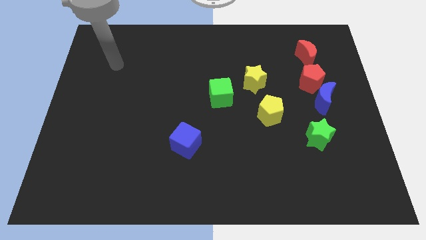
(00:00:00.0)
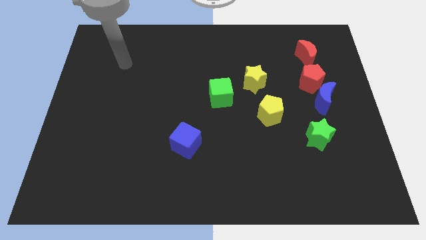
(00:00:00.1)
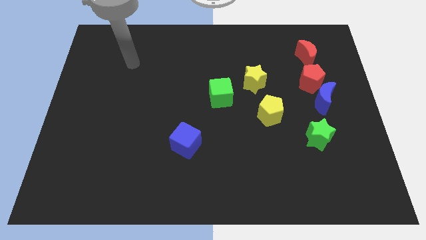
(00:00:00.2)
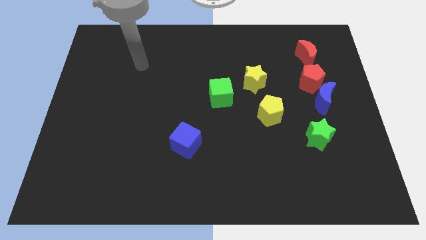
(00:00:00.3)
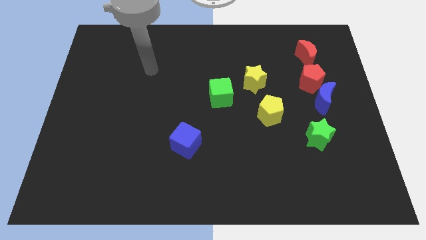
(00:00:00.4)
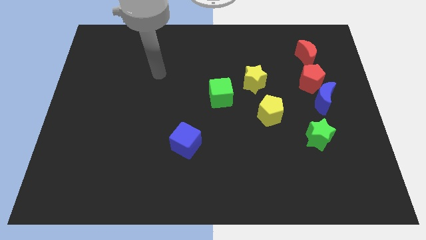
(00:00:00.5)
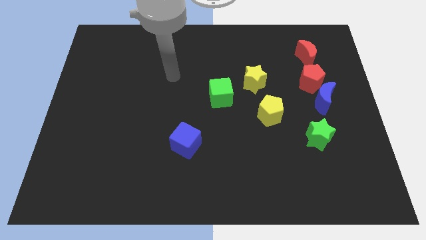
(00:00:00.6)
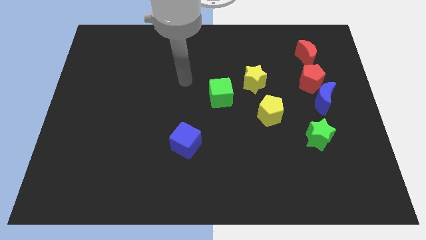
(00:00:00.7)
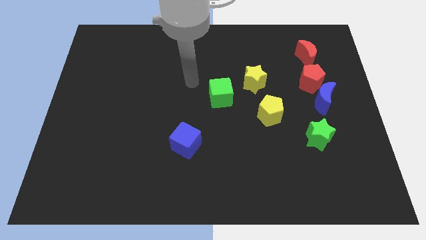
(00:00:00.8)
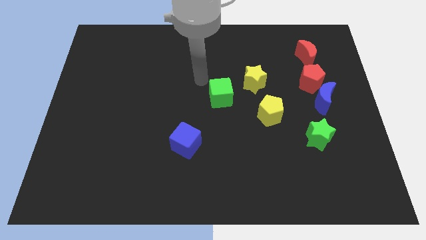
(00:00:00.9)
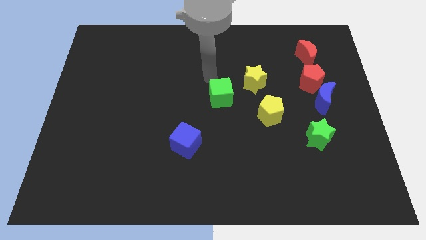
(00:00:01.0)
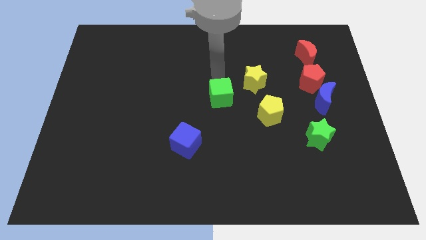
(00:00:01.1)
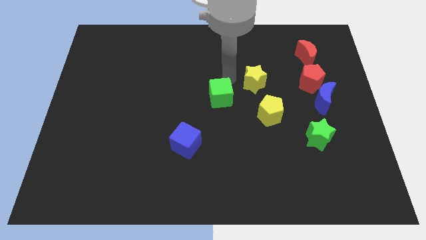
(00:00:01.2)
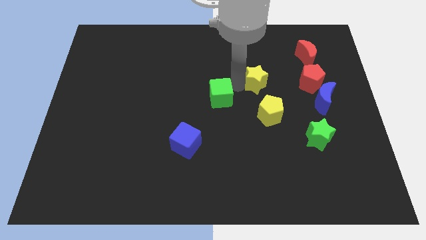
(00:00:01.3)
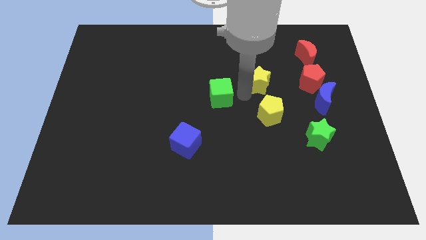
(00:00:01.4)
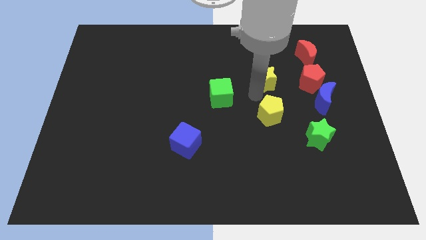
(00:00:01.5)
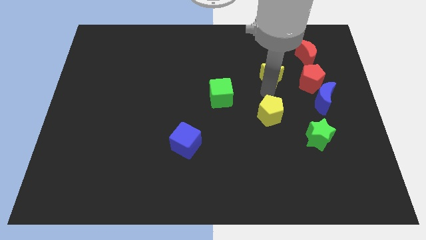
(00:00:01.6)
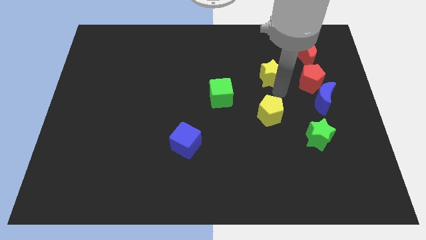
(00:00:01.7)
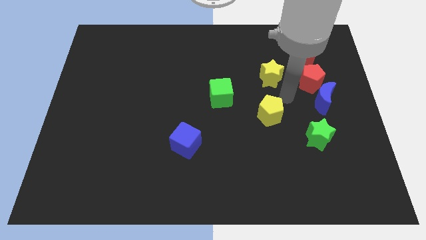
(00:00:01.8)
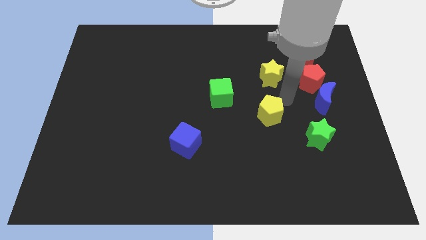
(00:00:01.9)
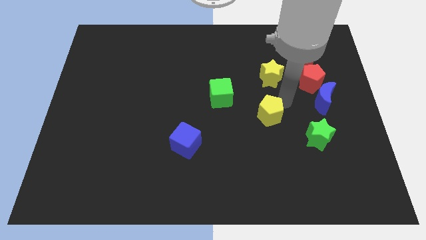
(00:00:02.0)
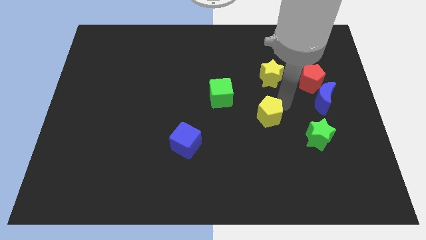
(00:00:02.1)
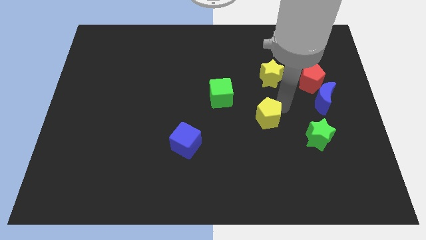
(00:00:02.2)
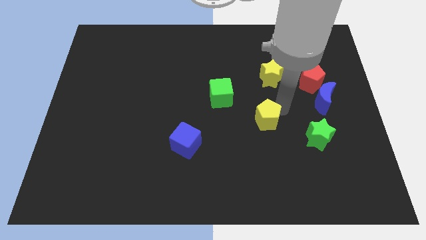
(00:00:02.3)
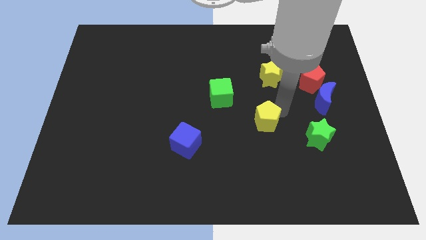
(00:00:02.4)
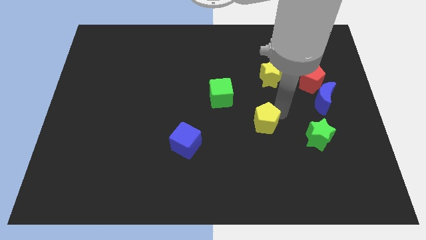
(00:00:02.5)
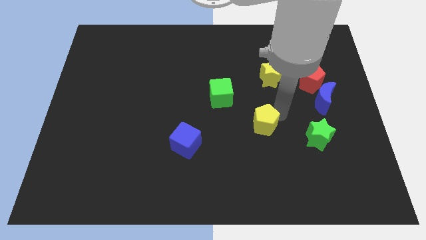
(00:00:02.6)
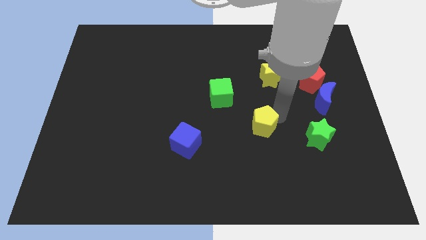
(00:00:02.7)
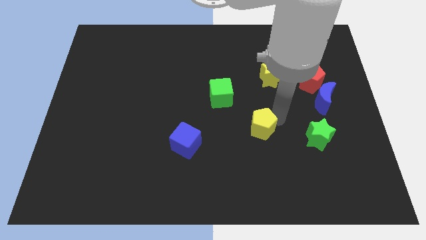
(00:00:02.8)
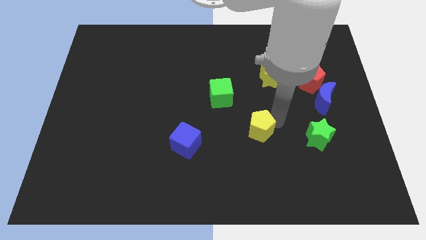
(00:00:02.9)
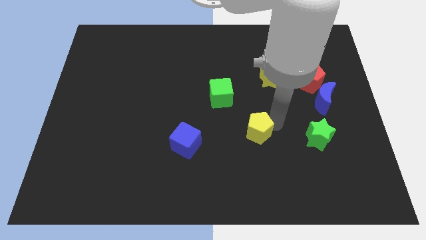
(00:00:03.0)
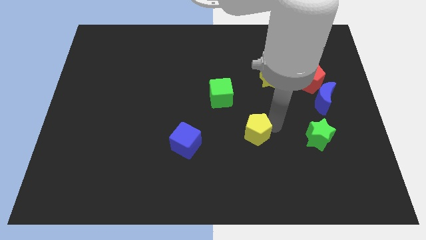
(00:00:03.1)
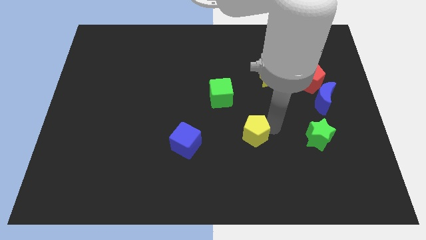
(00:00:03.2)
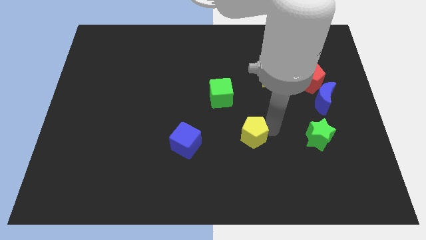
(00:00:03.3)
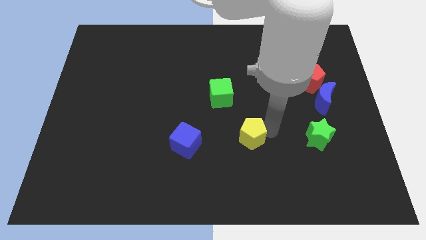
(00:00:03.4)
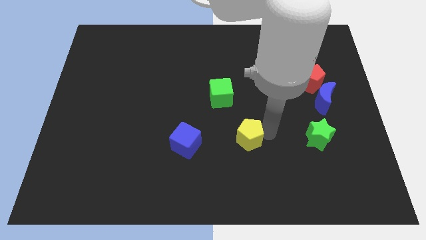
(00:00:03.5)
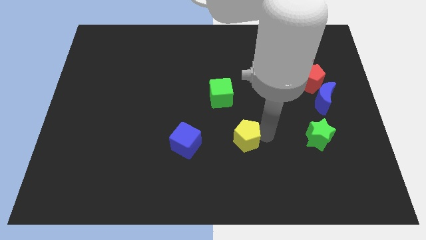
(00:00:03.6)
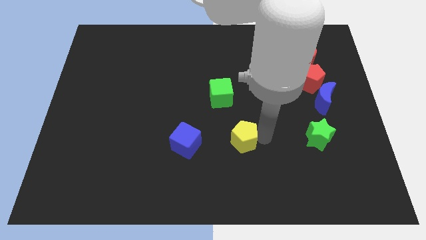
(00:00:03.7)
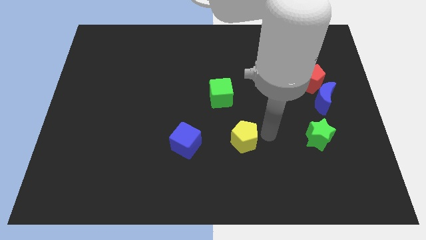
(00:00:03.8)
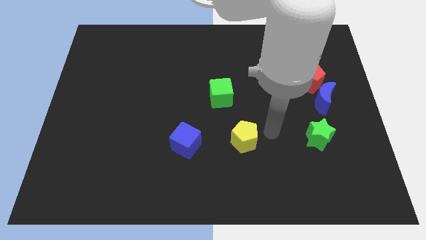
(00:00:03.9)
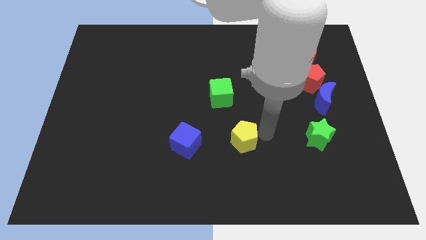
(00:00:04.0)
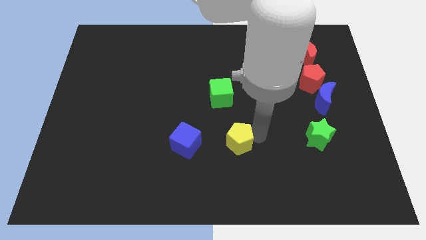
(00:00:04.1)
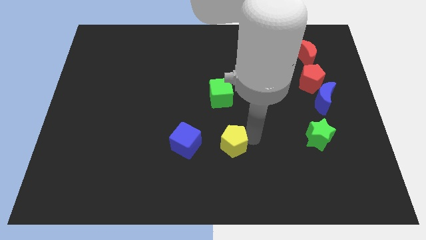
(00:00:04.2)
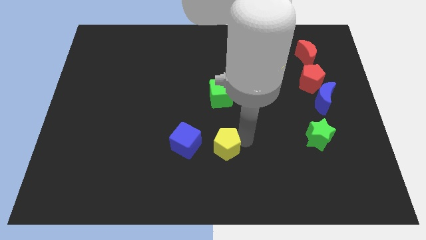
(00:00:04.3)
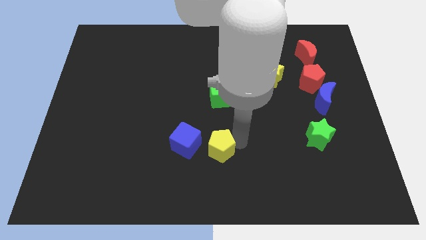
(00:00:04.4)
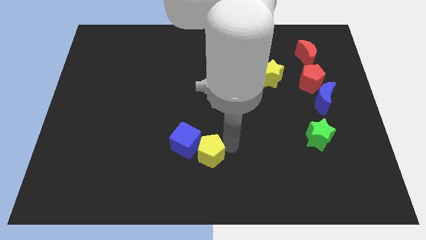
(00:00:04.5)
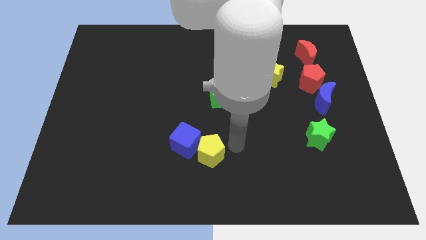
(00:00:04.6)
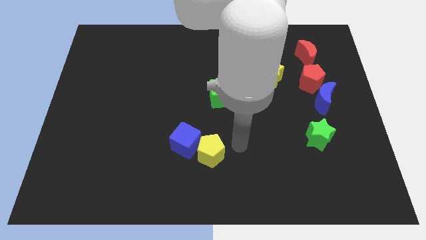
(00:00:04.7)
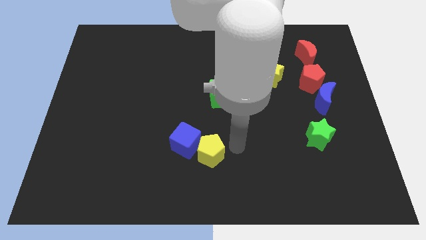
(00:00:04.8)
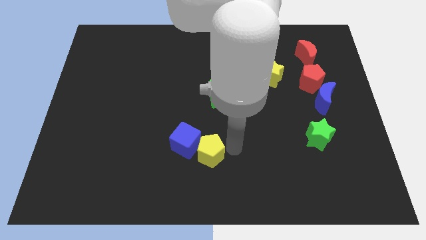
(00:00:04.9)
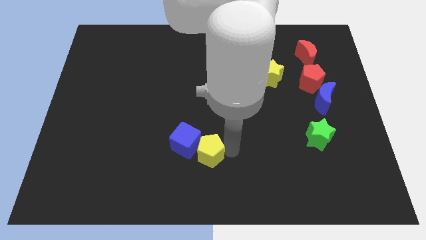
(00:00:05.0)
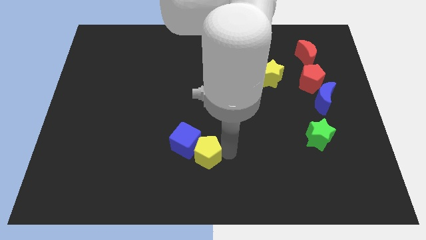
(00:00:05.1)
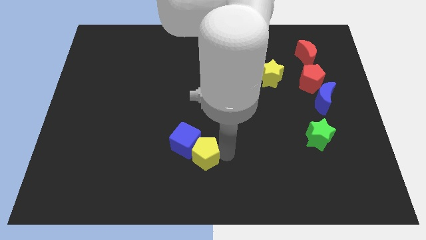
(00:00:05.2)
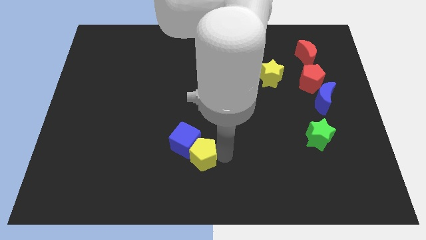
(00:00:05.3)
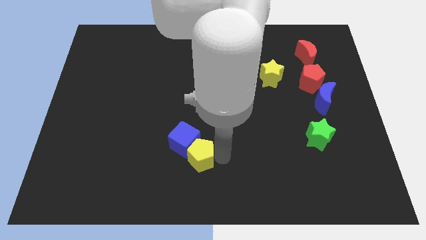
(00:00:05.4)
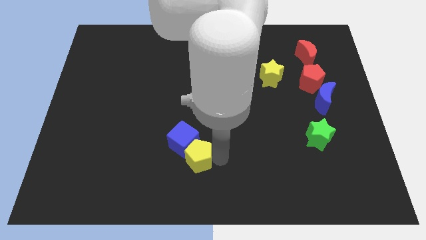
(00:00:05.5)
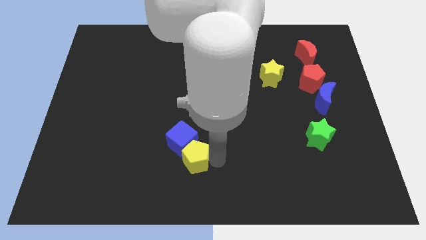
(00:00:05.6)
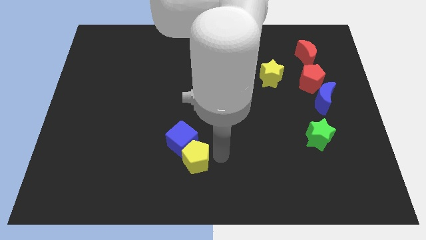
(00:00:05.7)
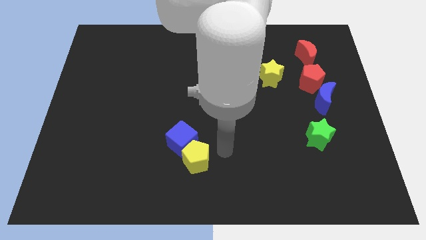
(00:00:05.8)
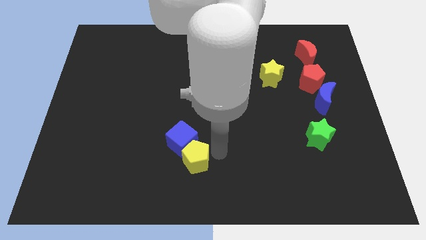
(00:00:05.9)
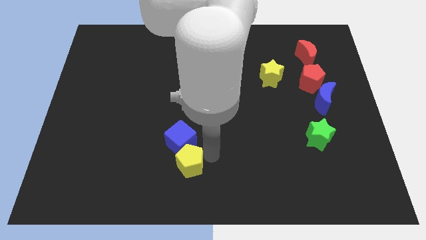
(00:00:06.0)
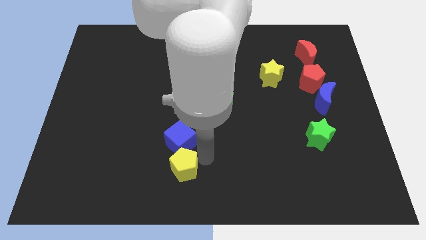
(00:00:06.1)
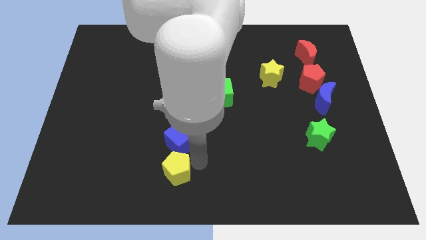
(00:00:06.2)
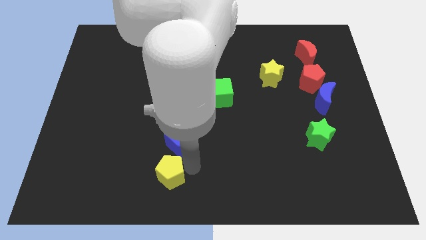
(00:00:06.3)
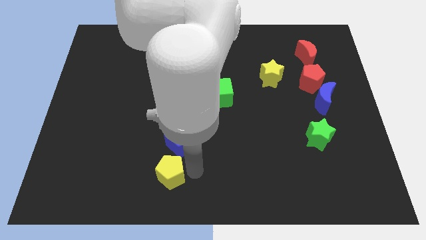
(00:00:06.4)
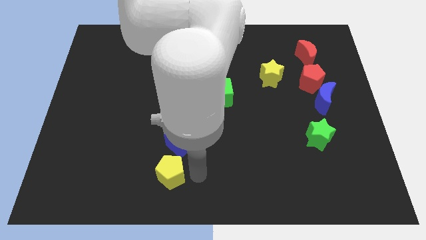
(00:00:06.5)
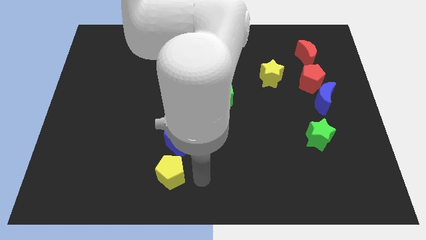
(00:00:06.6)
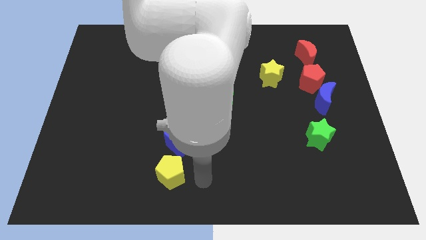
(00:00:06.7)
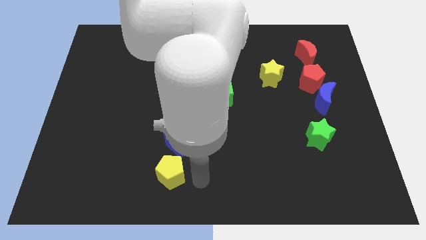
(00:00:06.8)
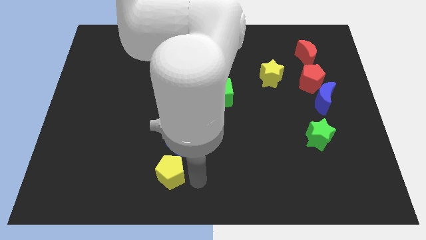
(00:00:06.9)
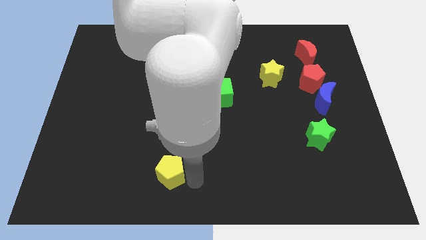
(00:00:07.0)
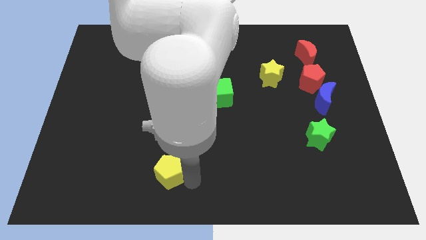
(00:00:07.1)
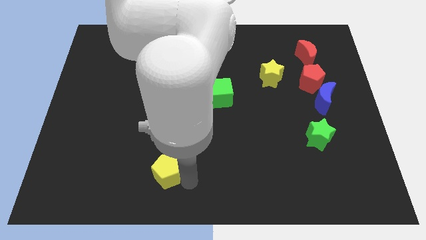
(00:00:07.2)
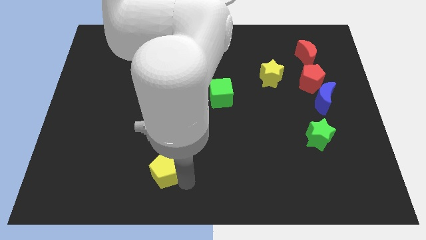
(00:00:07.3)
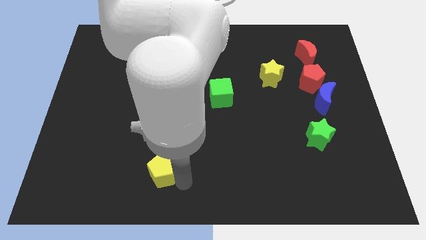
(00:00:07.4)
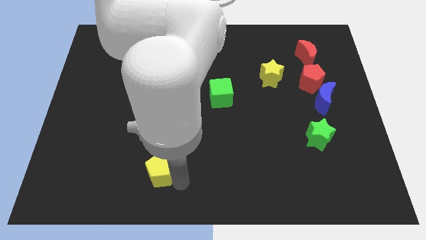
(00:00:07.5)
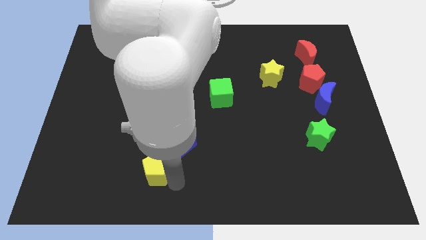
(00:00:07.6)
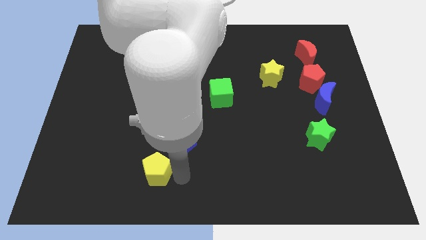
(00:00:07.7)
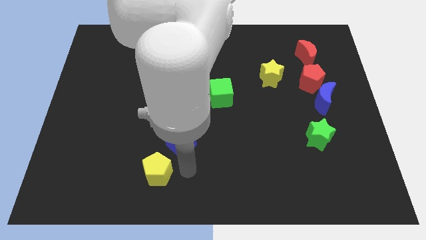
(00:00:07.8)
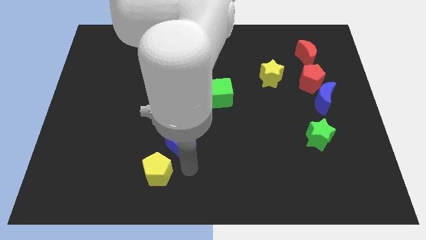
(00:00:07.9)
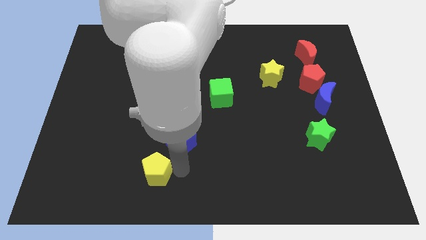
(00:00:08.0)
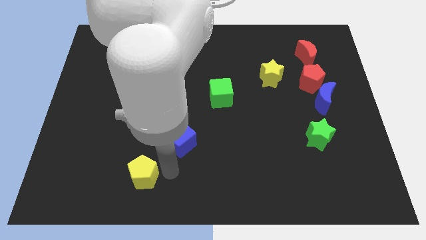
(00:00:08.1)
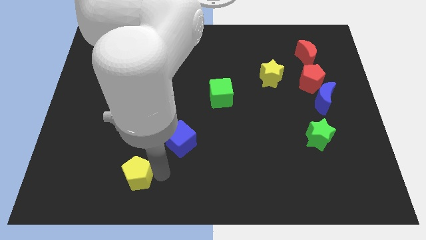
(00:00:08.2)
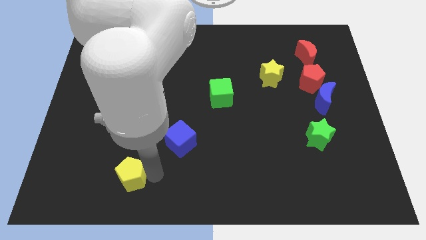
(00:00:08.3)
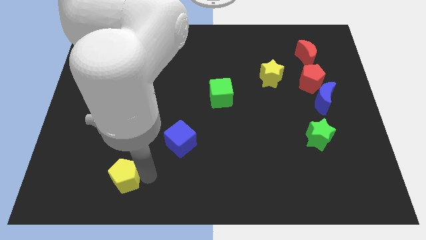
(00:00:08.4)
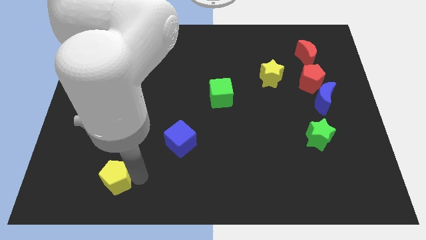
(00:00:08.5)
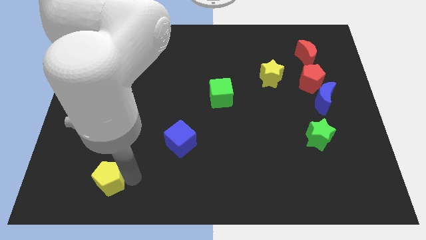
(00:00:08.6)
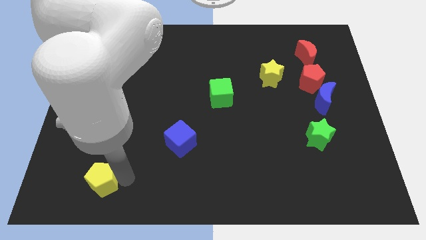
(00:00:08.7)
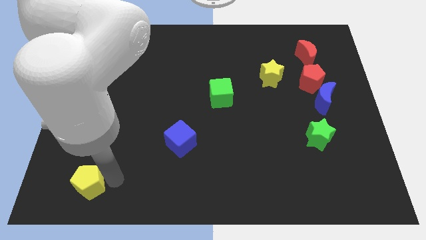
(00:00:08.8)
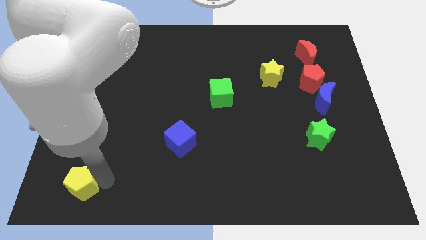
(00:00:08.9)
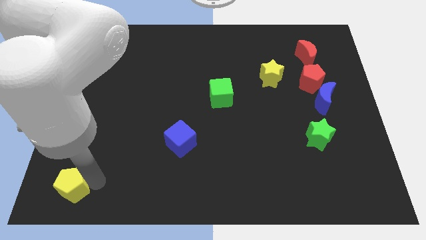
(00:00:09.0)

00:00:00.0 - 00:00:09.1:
push the yellow pentagon to the bottom left
